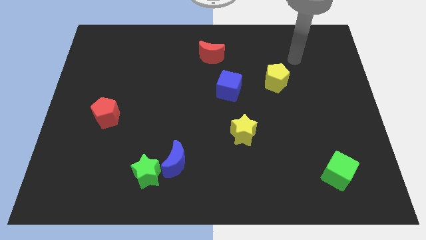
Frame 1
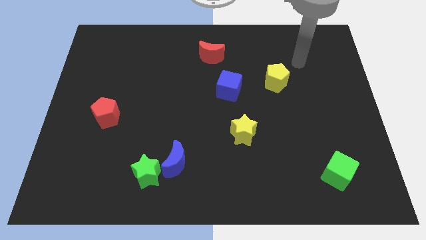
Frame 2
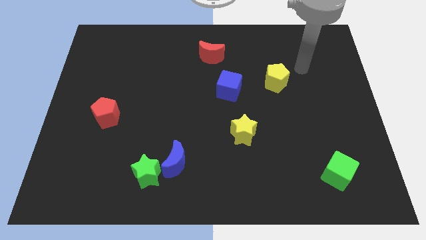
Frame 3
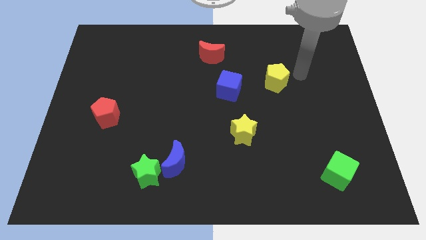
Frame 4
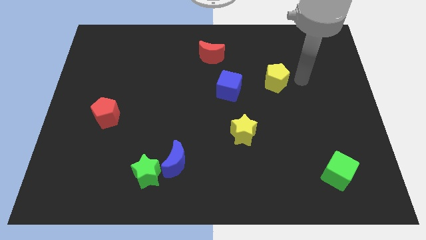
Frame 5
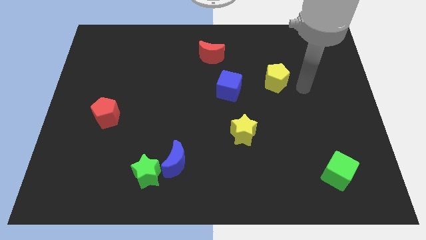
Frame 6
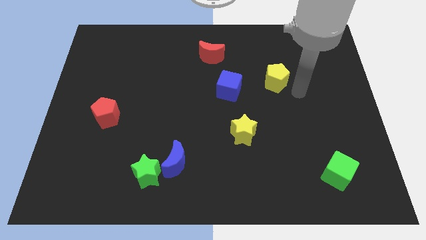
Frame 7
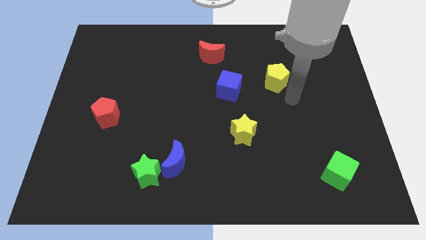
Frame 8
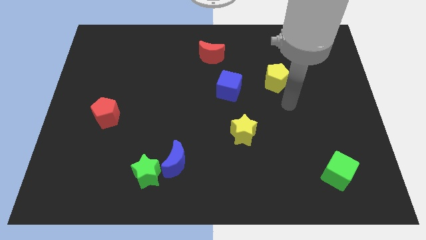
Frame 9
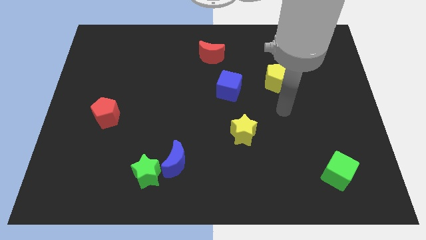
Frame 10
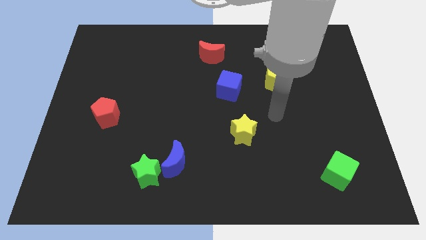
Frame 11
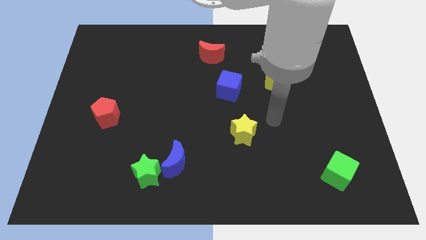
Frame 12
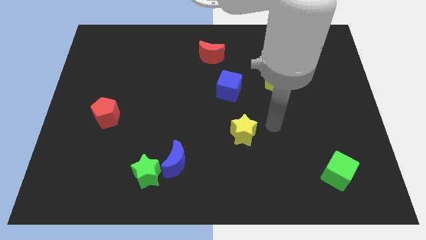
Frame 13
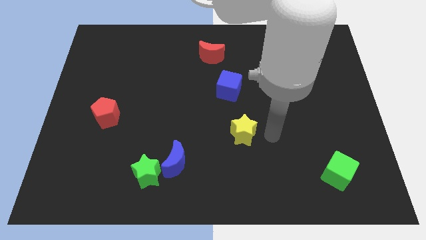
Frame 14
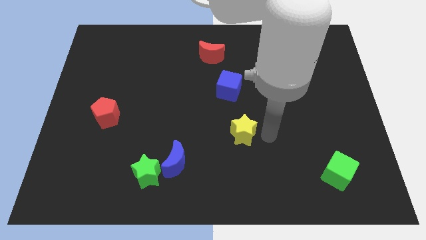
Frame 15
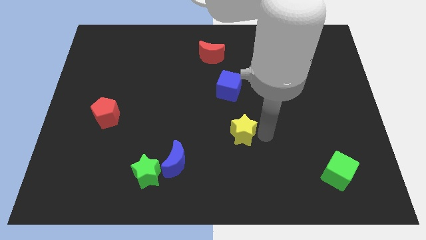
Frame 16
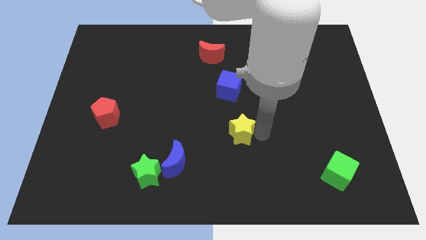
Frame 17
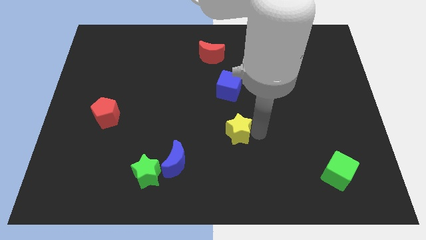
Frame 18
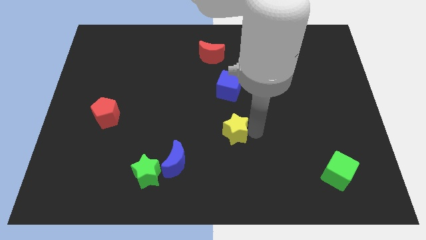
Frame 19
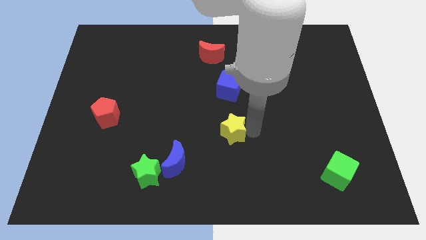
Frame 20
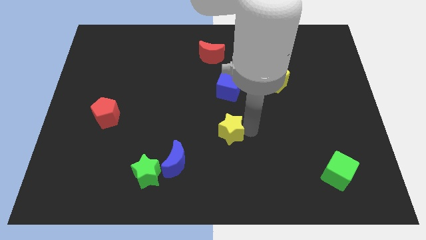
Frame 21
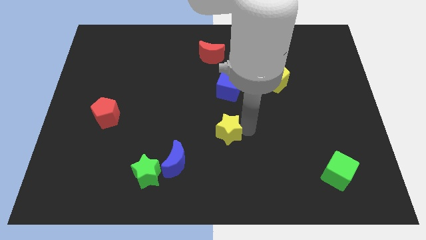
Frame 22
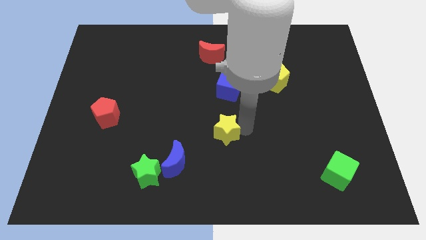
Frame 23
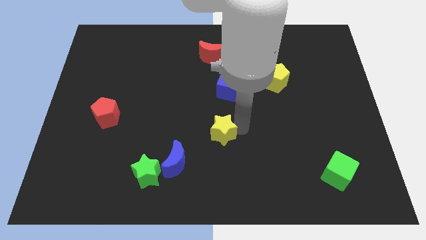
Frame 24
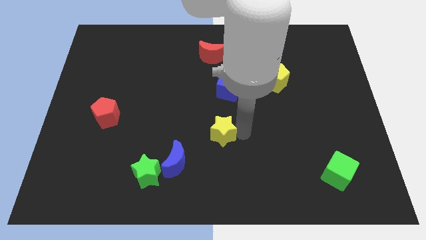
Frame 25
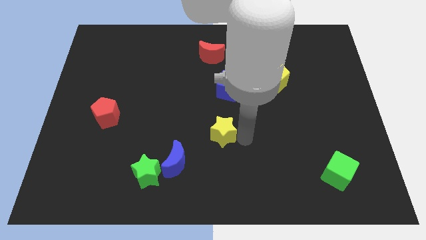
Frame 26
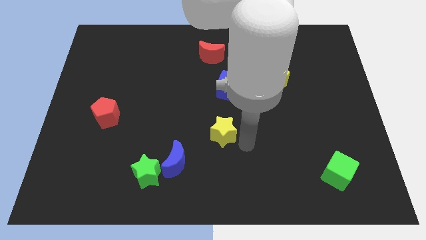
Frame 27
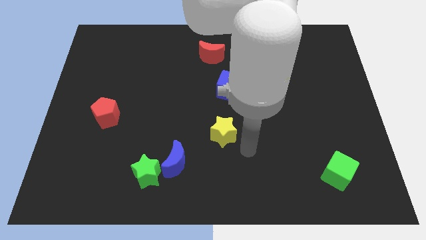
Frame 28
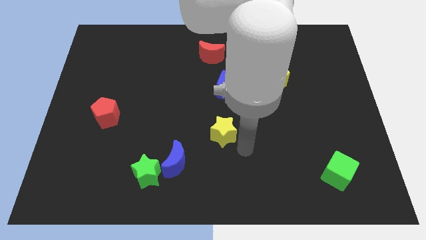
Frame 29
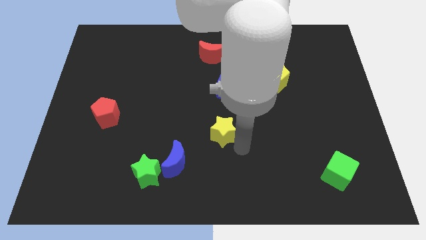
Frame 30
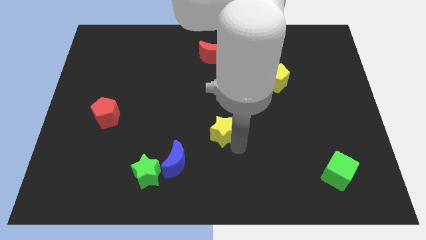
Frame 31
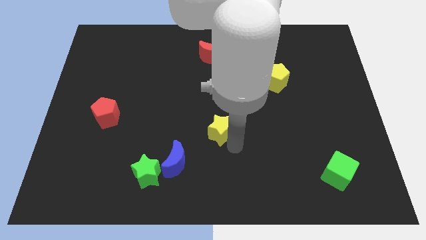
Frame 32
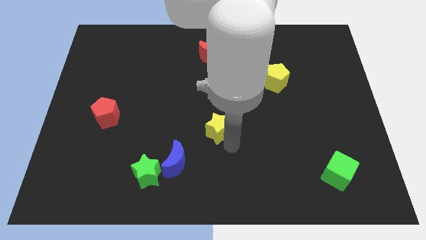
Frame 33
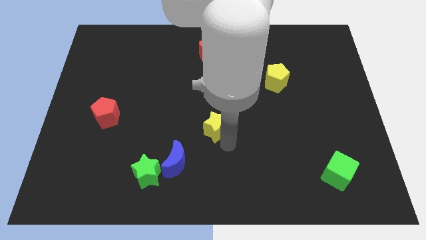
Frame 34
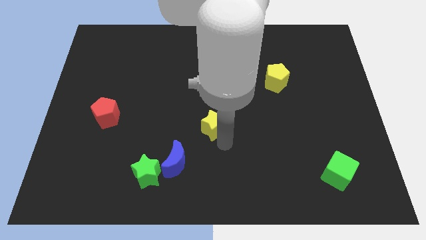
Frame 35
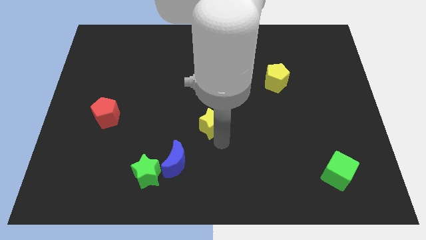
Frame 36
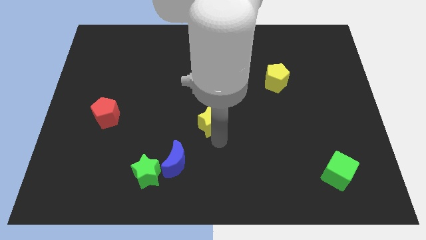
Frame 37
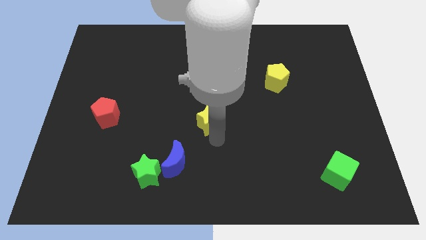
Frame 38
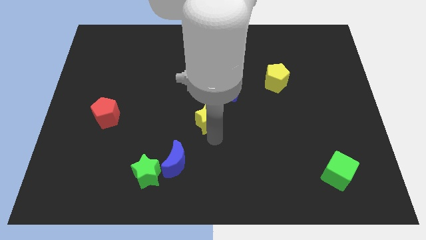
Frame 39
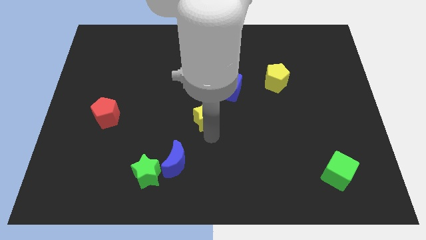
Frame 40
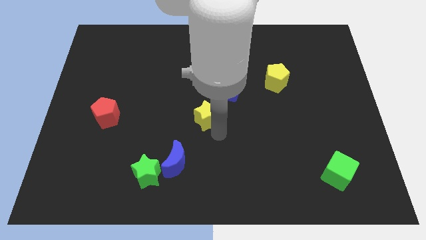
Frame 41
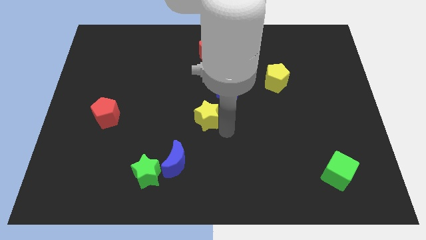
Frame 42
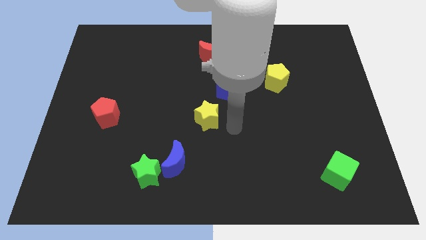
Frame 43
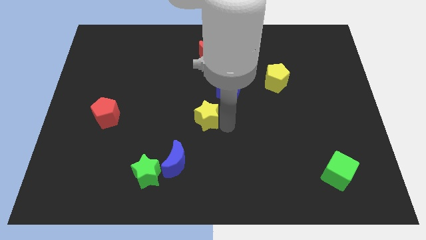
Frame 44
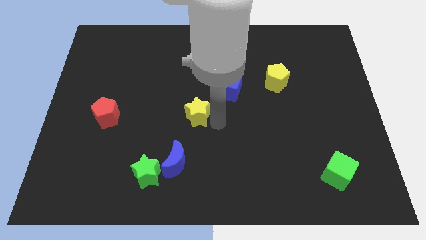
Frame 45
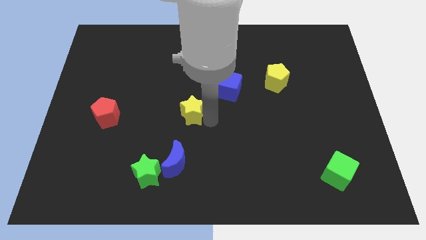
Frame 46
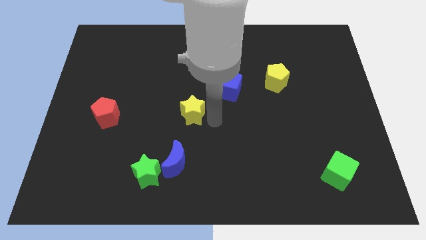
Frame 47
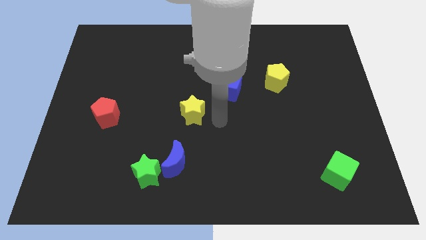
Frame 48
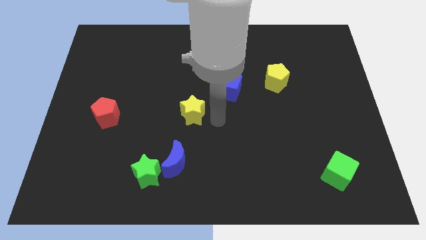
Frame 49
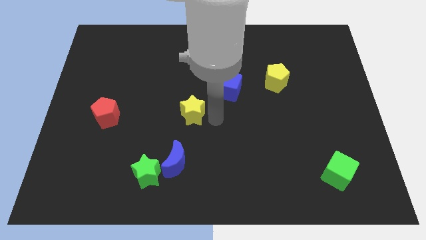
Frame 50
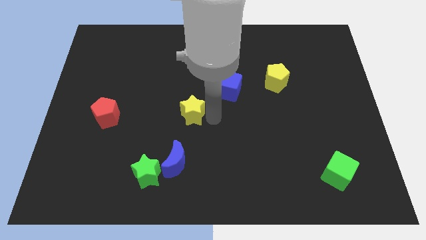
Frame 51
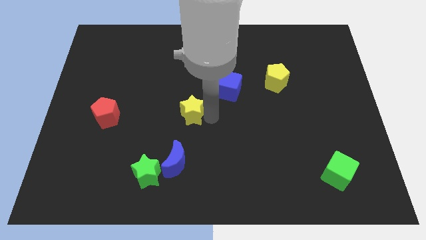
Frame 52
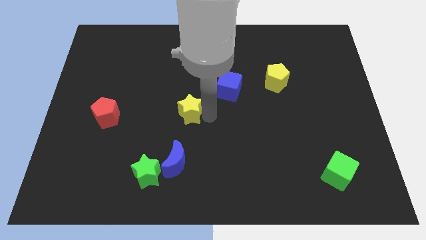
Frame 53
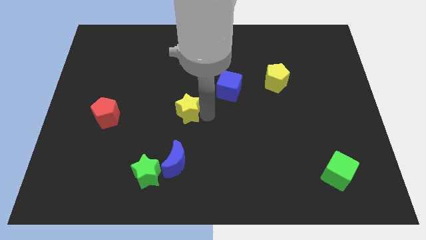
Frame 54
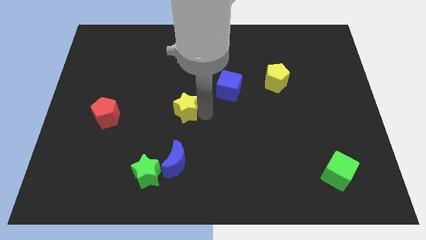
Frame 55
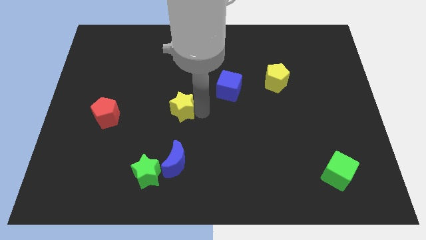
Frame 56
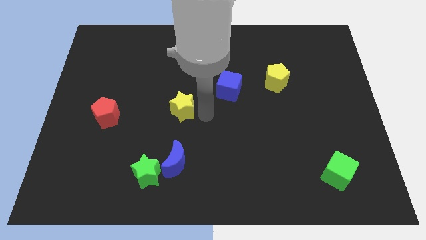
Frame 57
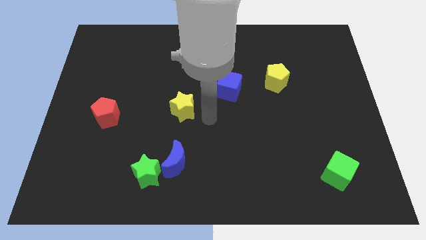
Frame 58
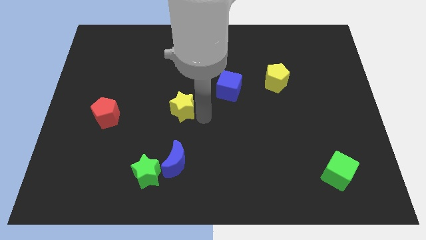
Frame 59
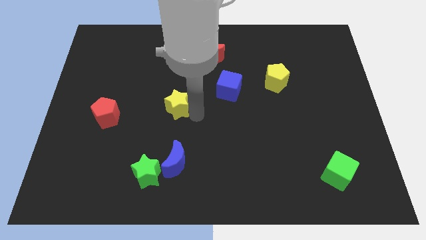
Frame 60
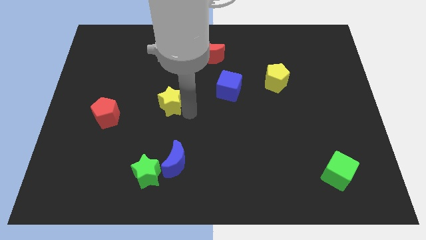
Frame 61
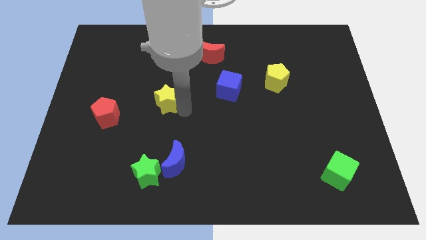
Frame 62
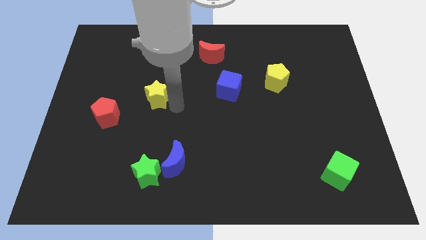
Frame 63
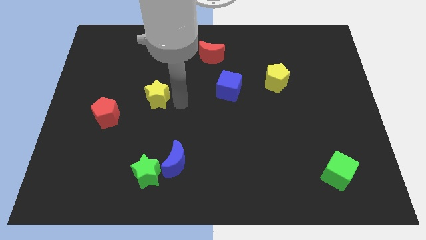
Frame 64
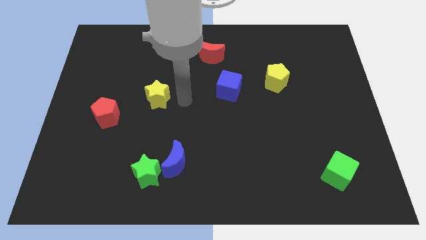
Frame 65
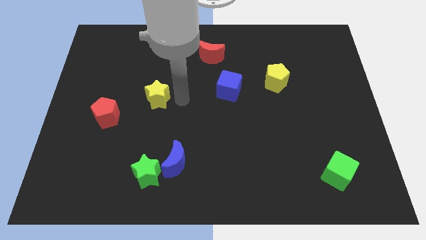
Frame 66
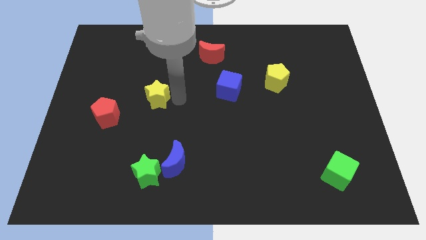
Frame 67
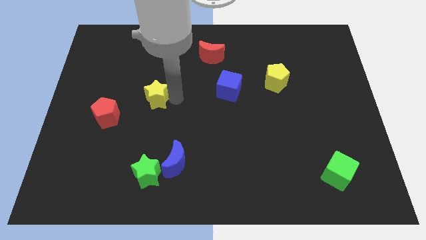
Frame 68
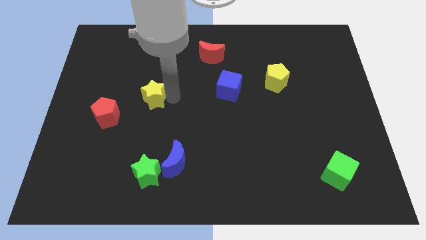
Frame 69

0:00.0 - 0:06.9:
put the yellow star to the top right side of the red pentagon

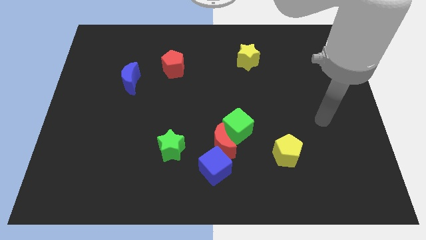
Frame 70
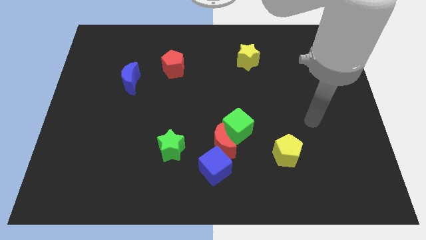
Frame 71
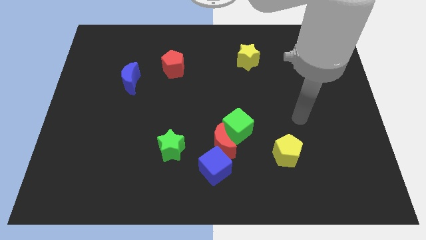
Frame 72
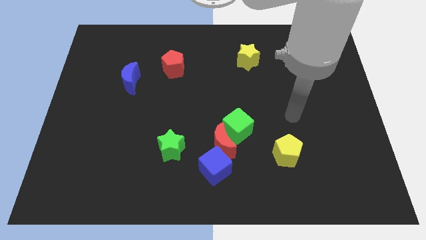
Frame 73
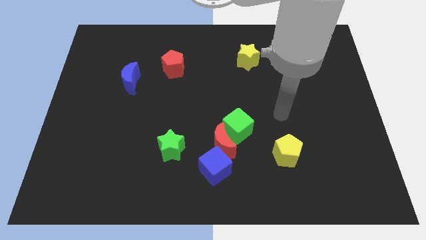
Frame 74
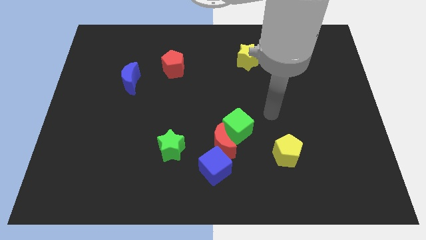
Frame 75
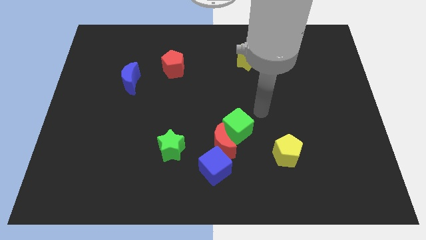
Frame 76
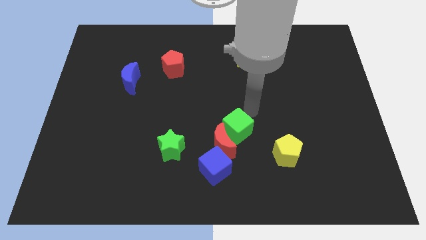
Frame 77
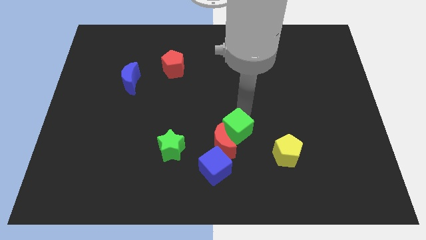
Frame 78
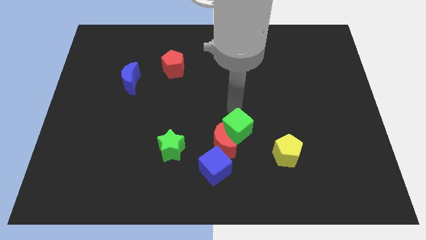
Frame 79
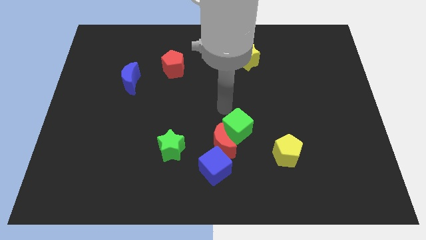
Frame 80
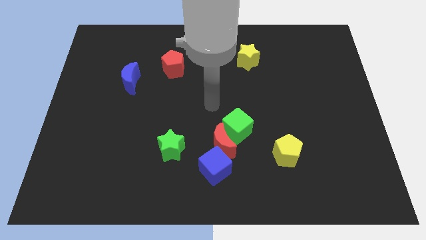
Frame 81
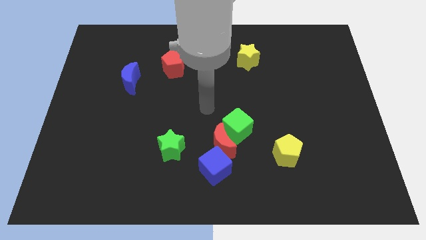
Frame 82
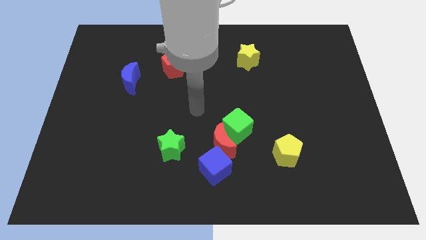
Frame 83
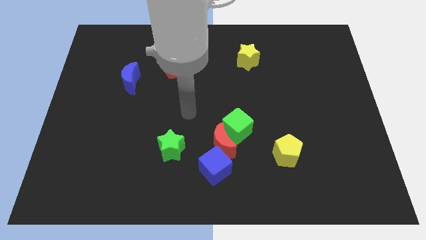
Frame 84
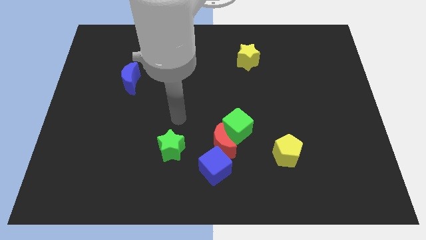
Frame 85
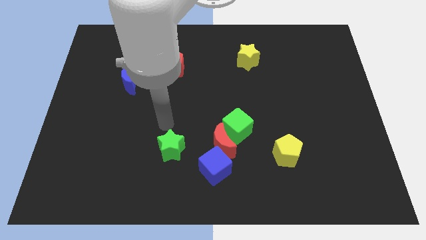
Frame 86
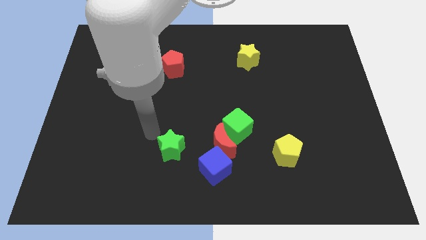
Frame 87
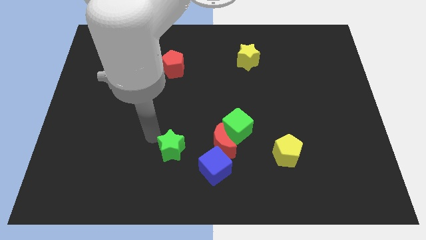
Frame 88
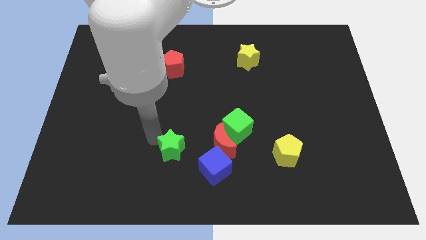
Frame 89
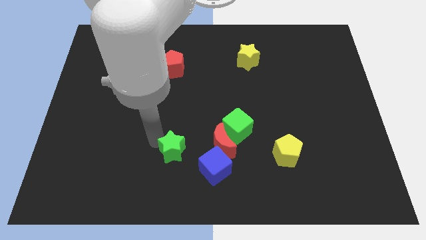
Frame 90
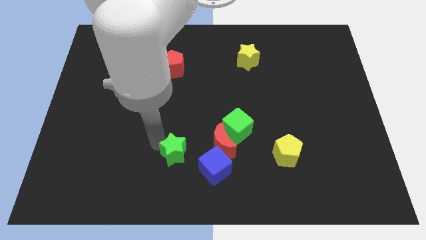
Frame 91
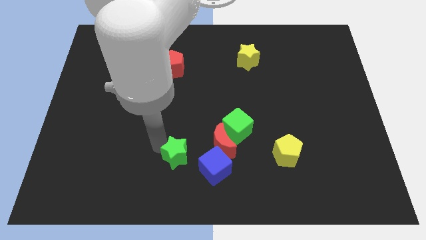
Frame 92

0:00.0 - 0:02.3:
move the green star to the bottom left side of the red moon
